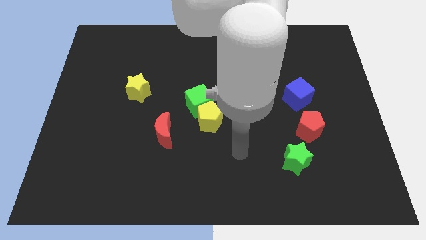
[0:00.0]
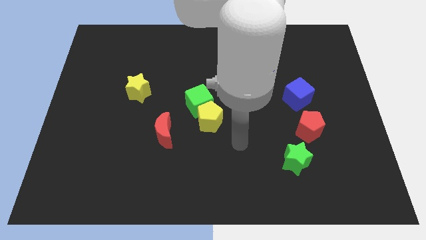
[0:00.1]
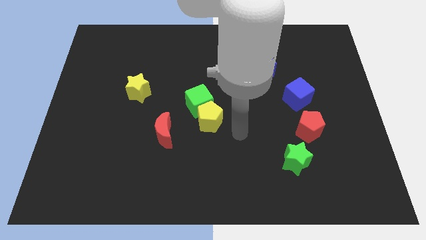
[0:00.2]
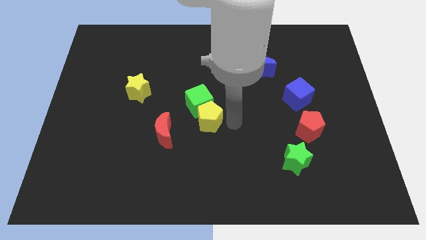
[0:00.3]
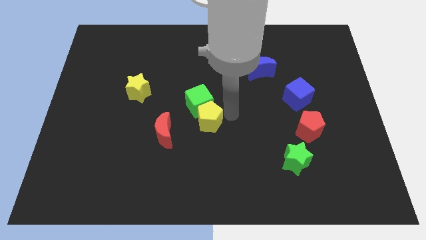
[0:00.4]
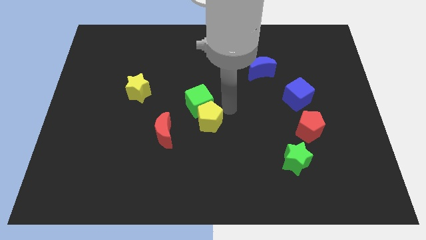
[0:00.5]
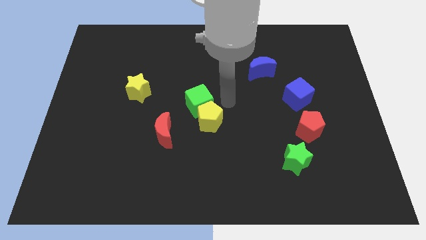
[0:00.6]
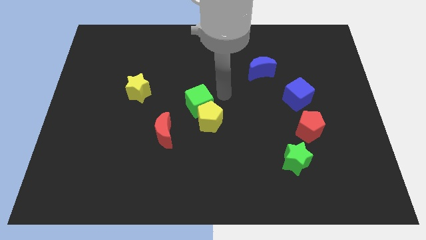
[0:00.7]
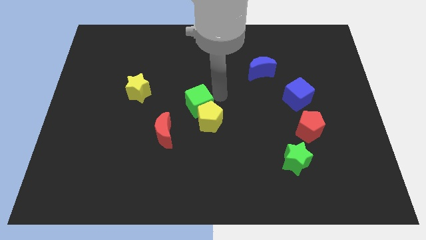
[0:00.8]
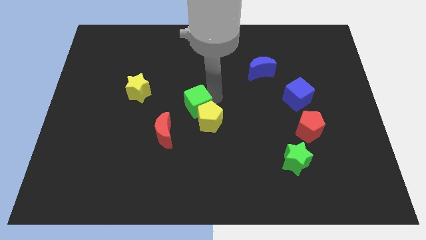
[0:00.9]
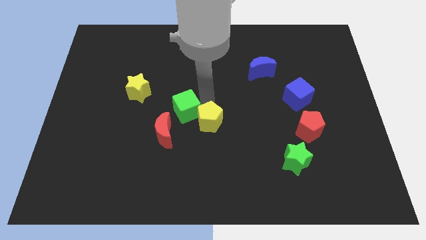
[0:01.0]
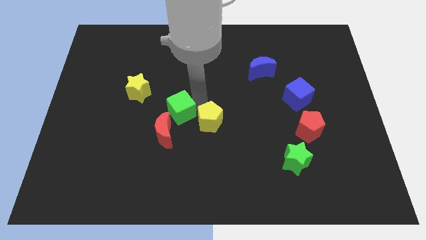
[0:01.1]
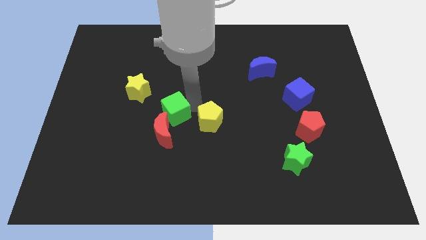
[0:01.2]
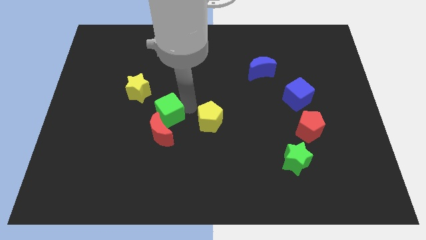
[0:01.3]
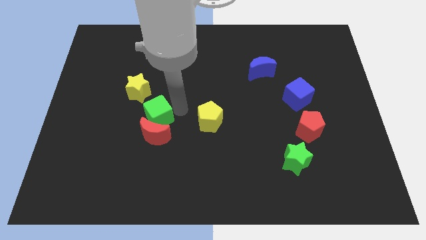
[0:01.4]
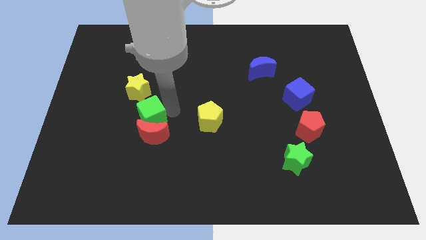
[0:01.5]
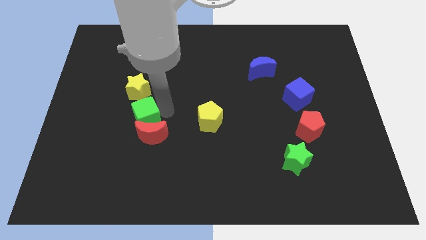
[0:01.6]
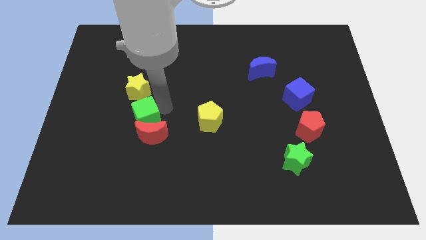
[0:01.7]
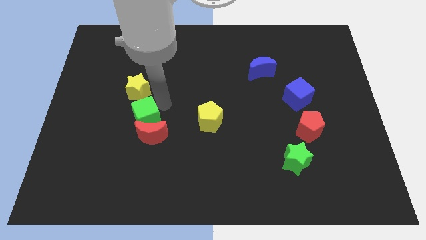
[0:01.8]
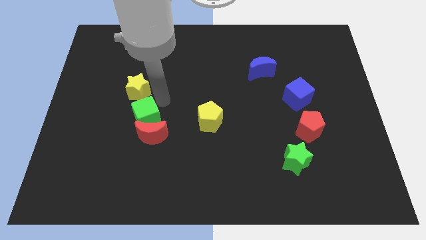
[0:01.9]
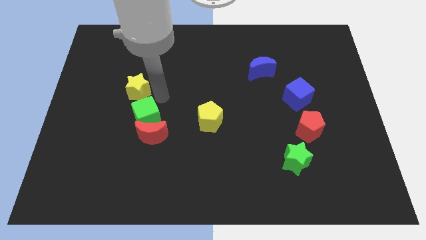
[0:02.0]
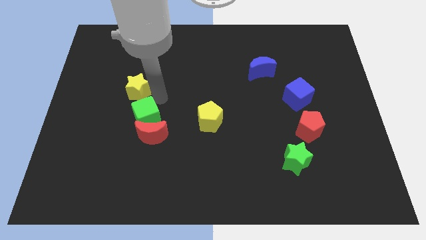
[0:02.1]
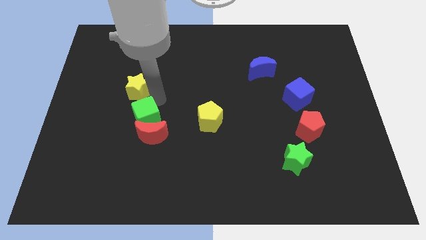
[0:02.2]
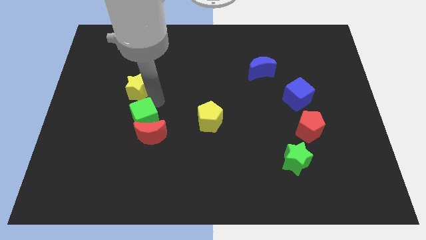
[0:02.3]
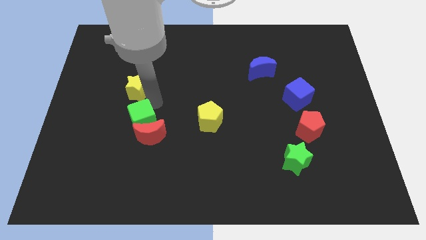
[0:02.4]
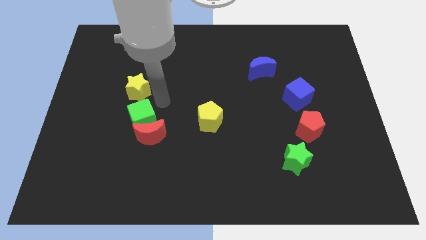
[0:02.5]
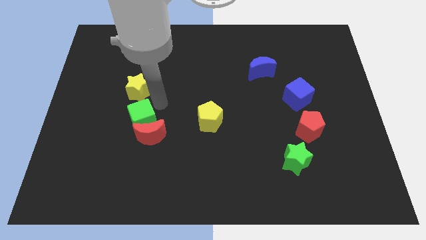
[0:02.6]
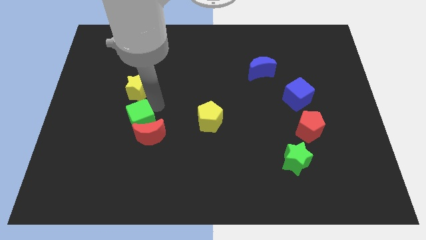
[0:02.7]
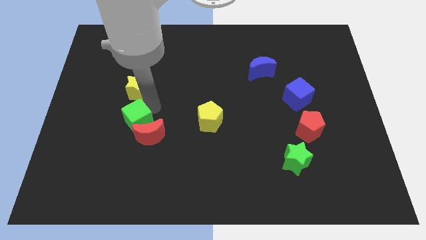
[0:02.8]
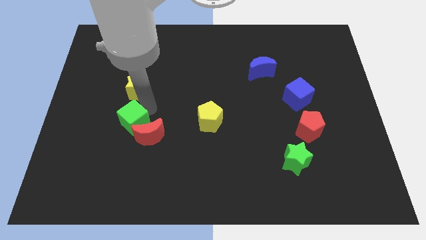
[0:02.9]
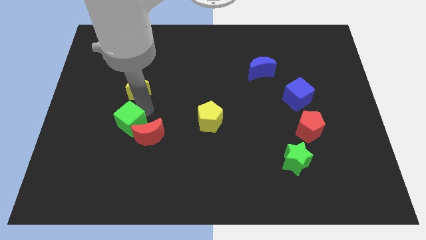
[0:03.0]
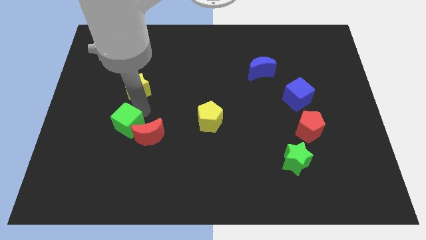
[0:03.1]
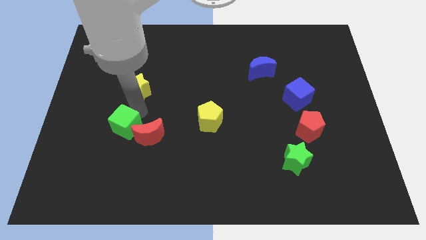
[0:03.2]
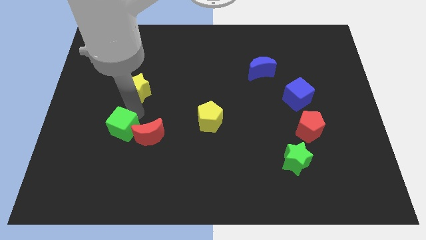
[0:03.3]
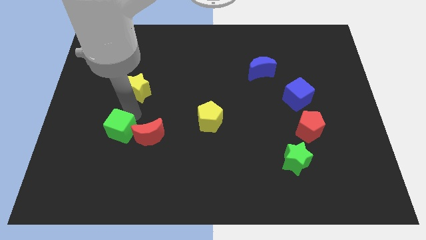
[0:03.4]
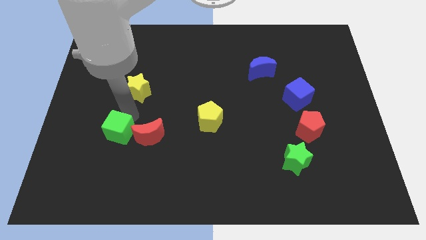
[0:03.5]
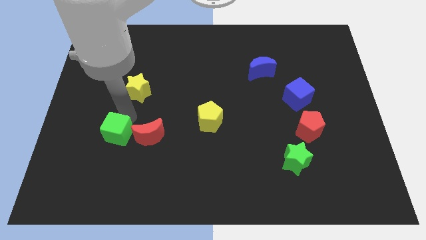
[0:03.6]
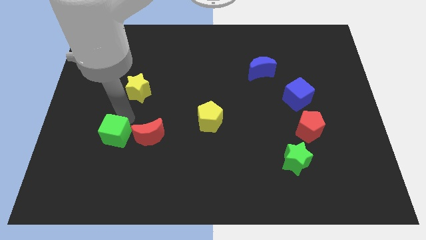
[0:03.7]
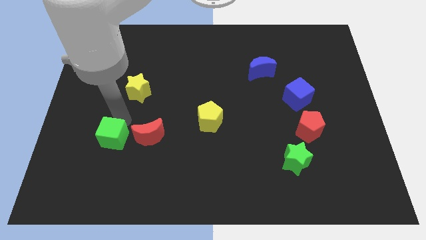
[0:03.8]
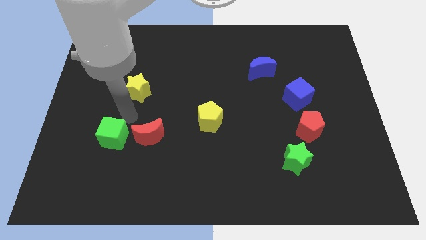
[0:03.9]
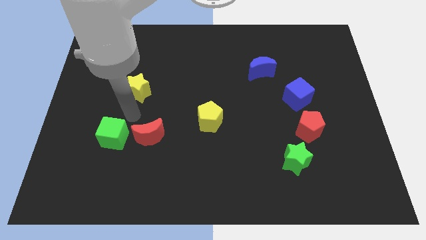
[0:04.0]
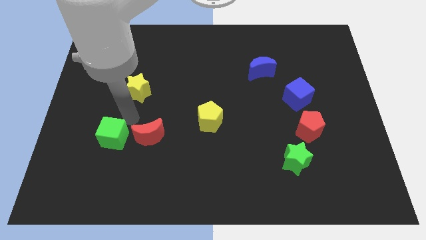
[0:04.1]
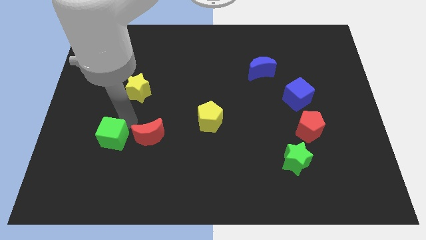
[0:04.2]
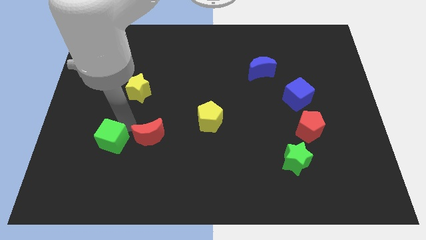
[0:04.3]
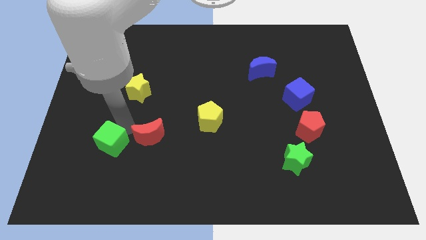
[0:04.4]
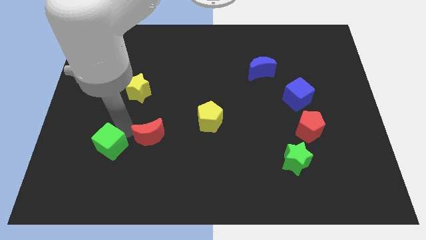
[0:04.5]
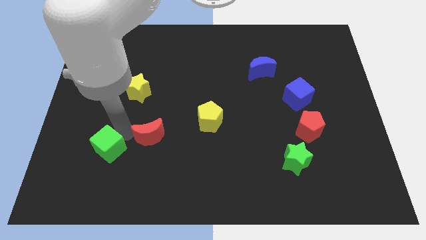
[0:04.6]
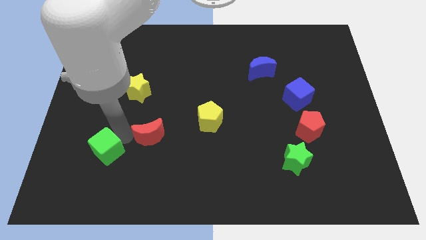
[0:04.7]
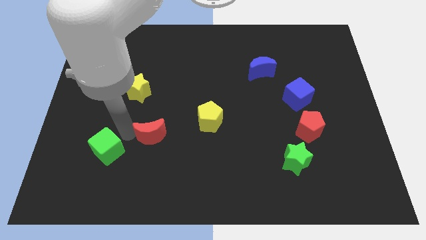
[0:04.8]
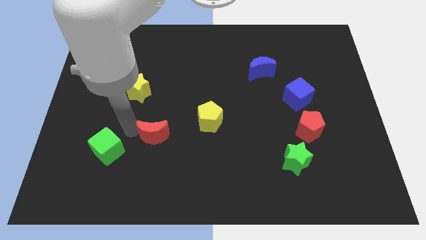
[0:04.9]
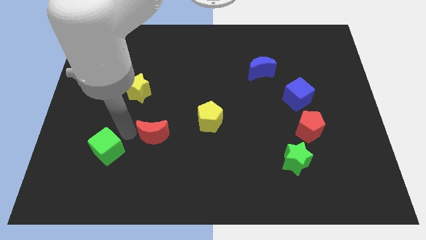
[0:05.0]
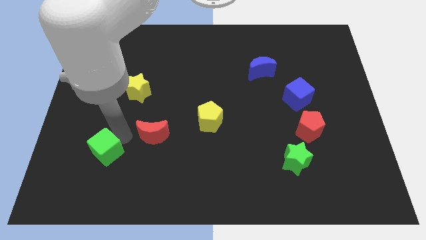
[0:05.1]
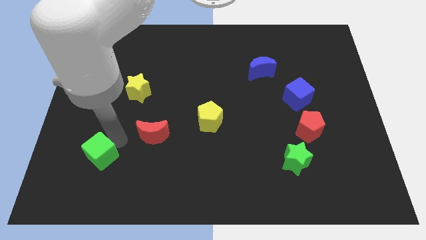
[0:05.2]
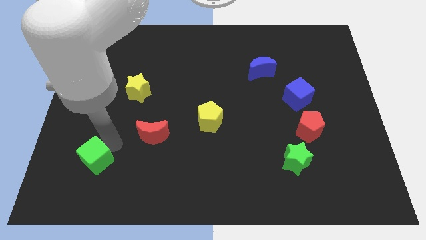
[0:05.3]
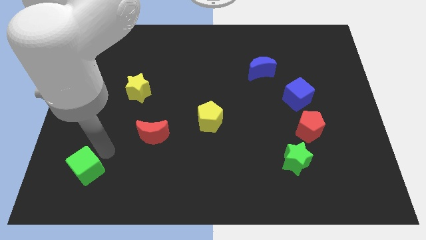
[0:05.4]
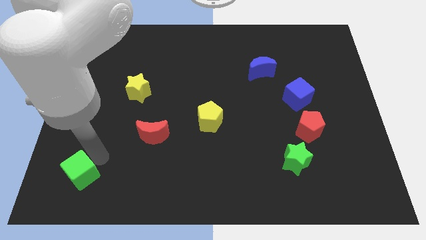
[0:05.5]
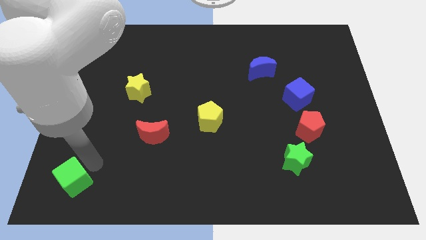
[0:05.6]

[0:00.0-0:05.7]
slide the green cube to the bottom left corner

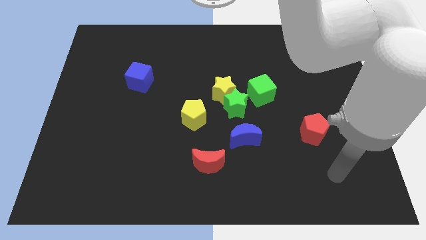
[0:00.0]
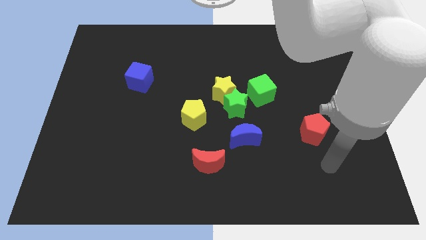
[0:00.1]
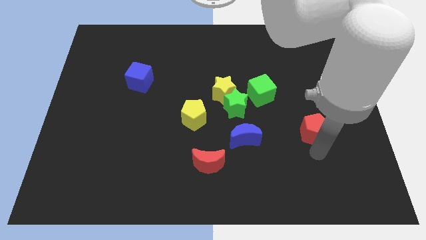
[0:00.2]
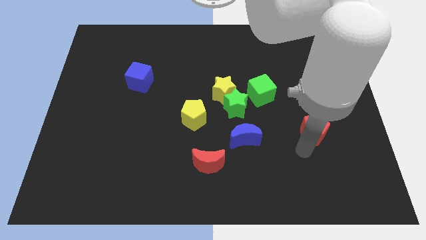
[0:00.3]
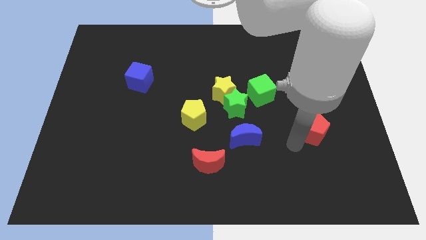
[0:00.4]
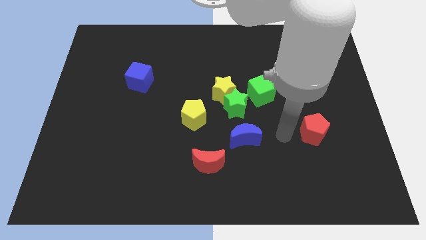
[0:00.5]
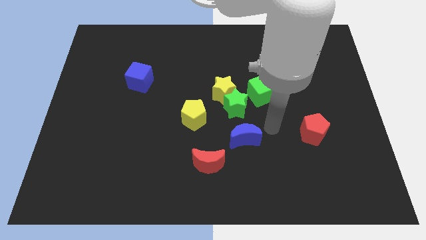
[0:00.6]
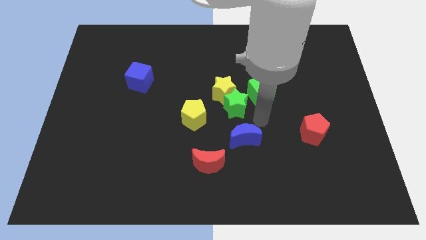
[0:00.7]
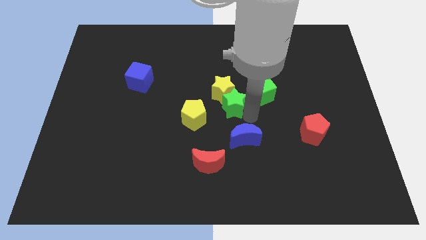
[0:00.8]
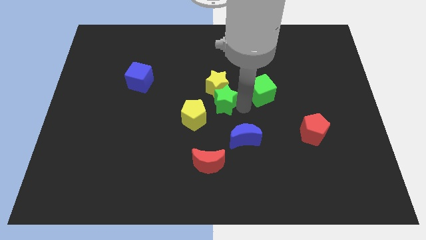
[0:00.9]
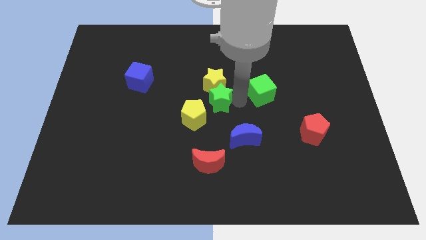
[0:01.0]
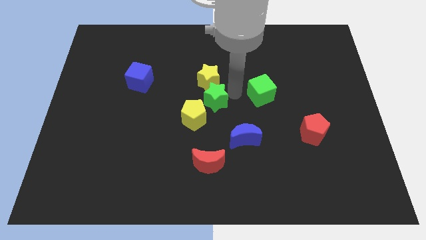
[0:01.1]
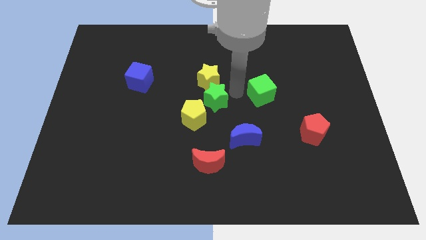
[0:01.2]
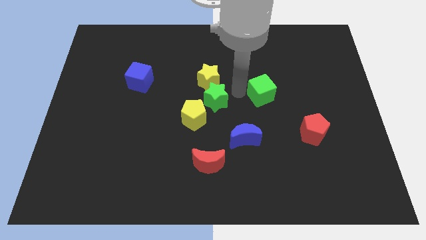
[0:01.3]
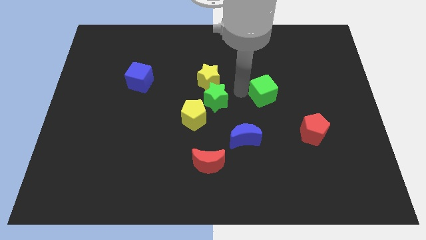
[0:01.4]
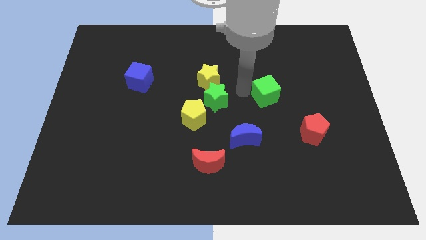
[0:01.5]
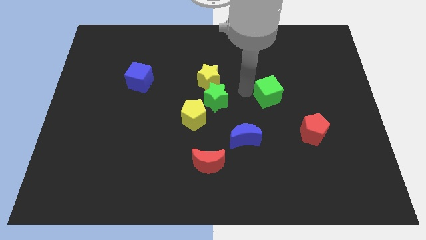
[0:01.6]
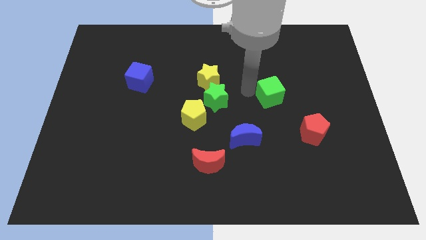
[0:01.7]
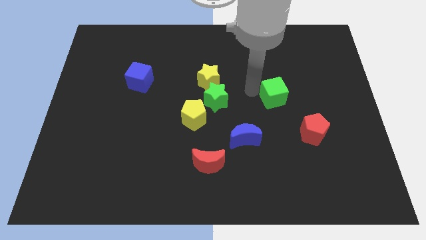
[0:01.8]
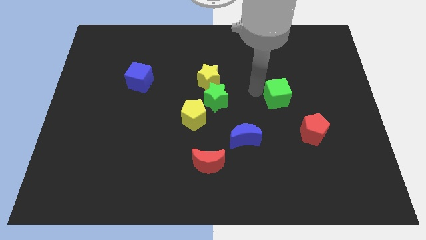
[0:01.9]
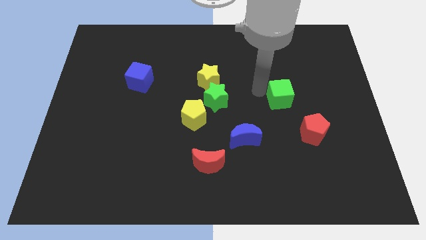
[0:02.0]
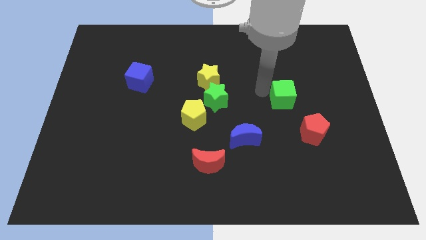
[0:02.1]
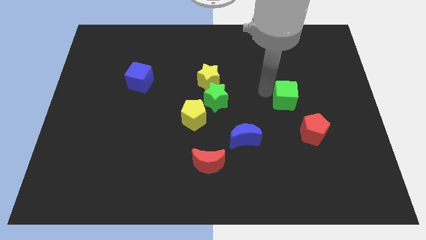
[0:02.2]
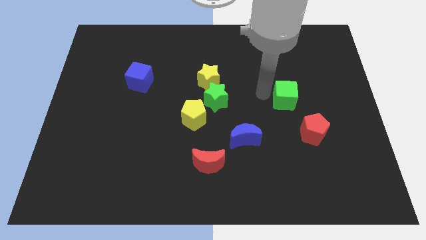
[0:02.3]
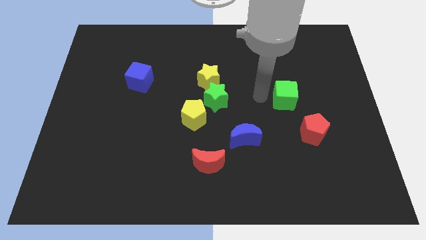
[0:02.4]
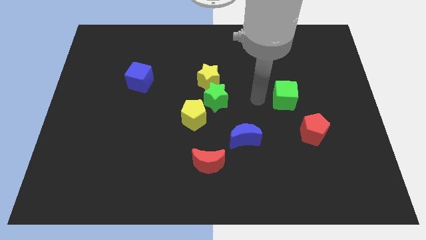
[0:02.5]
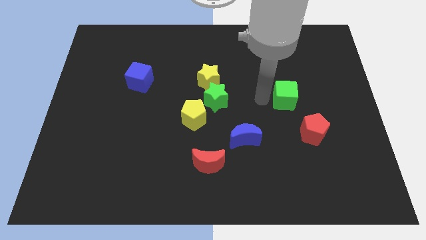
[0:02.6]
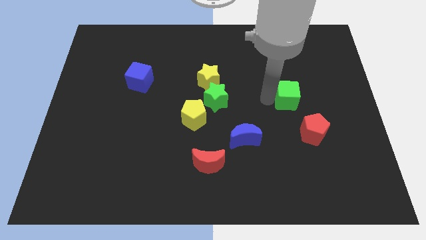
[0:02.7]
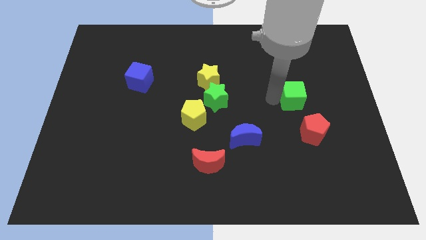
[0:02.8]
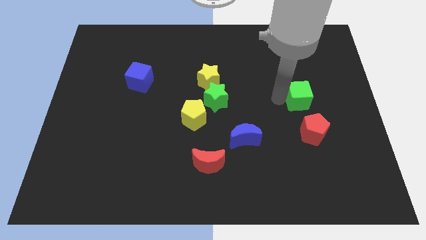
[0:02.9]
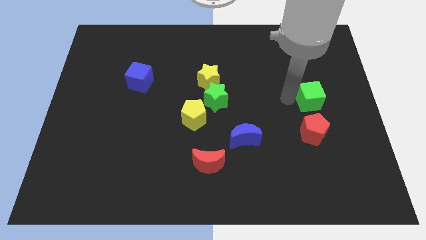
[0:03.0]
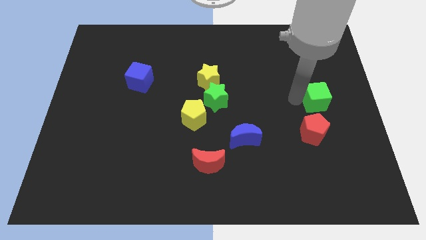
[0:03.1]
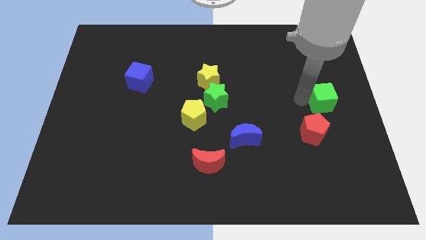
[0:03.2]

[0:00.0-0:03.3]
slide the green cube to the right side of the board
